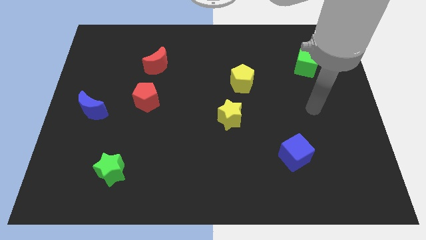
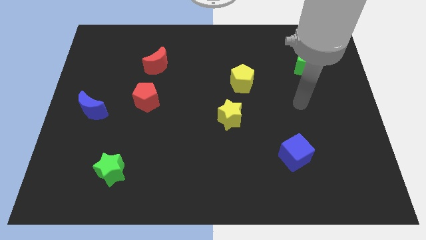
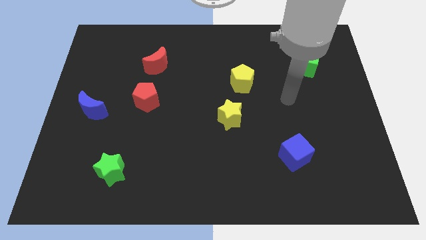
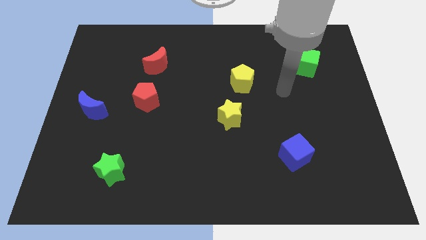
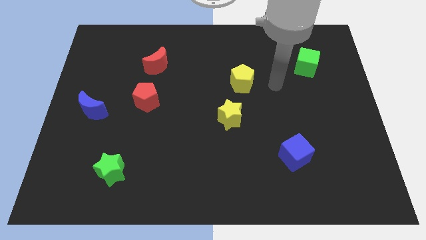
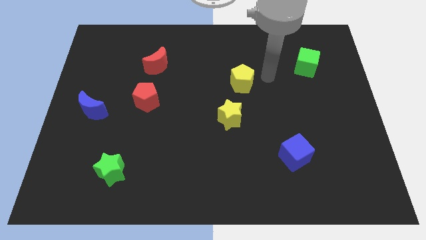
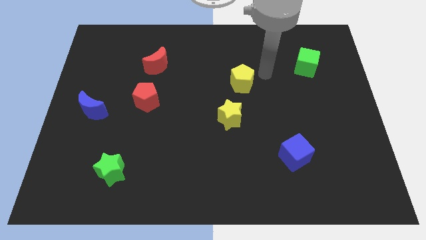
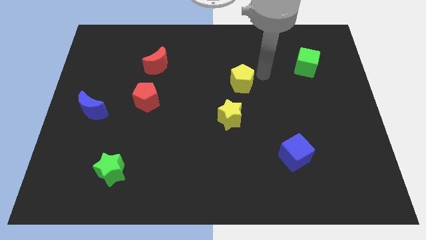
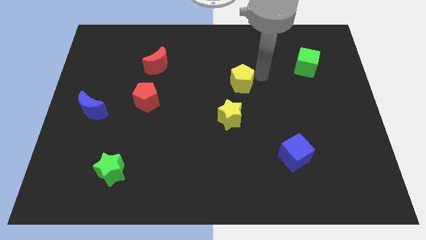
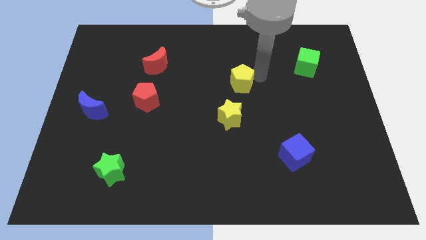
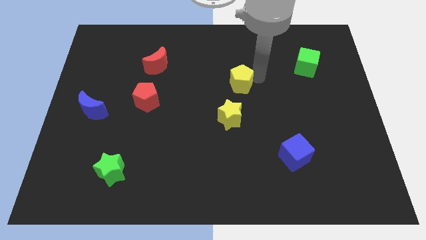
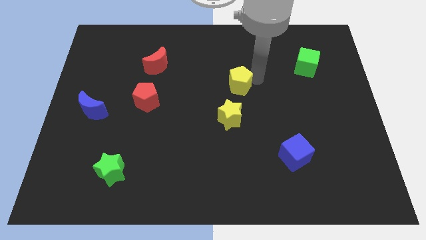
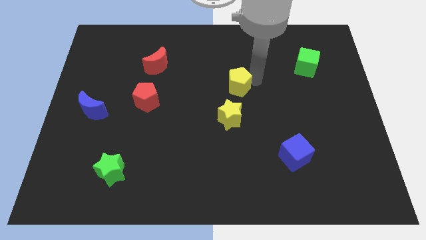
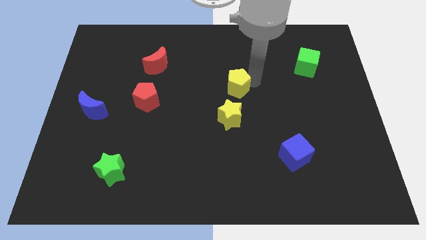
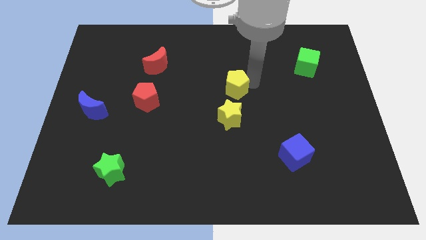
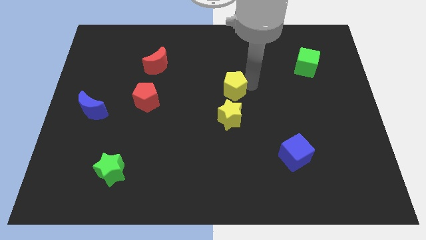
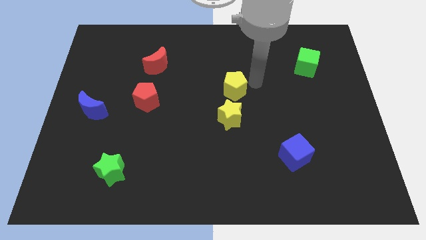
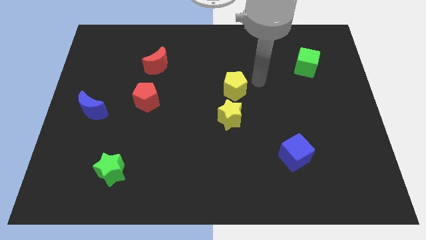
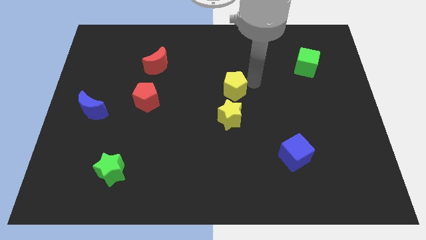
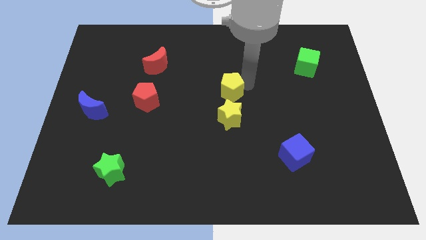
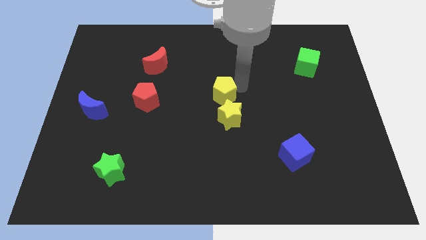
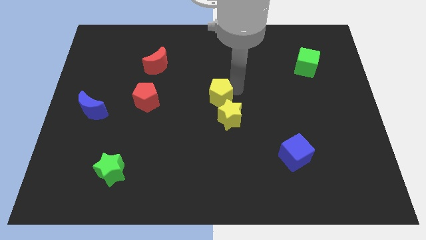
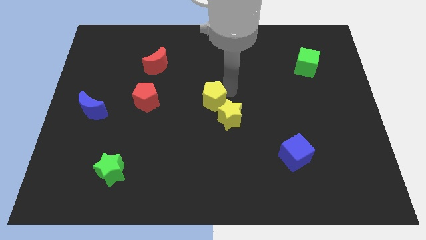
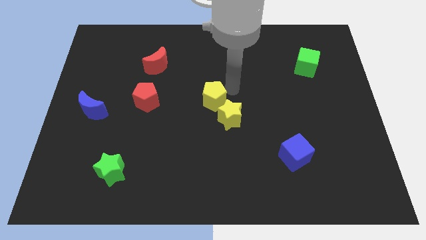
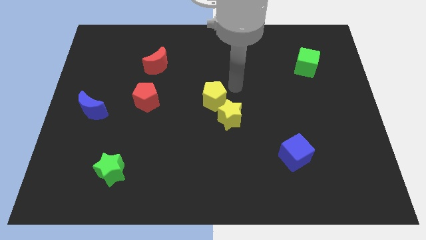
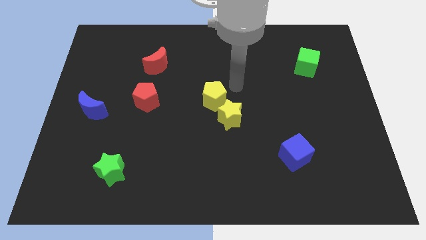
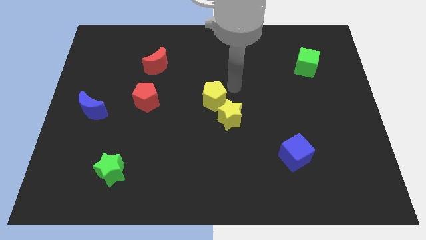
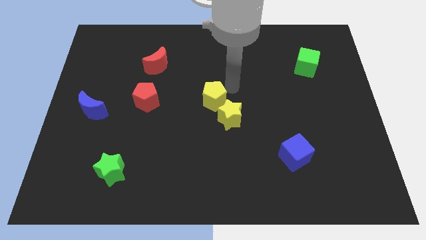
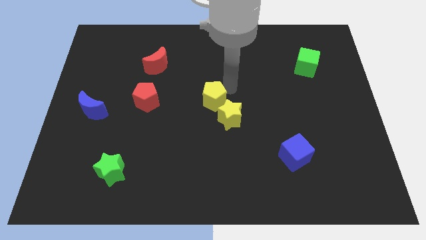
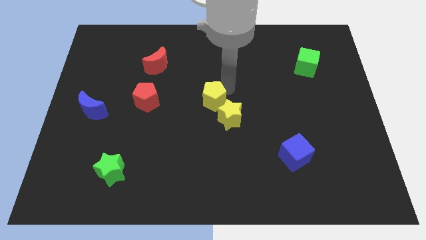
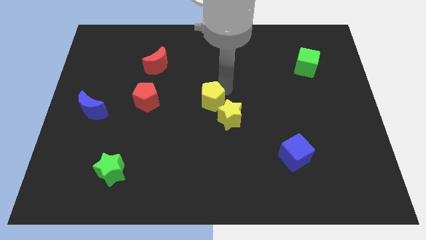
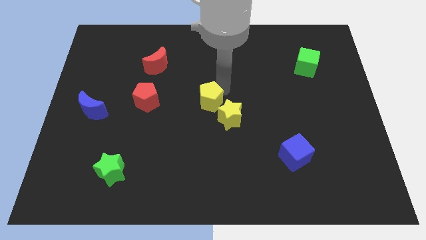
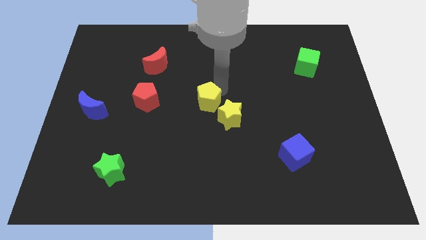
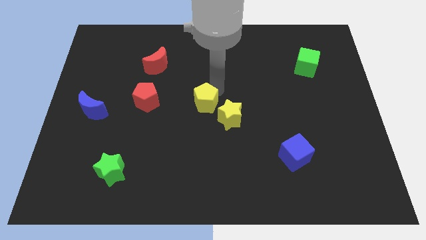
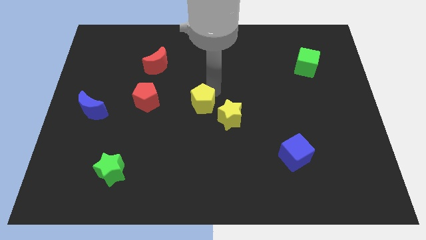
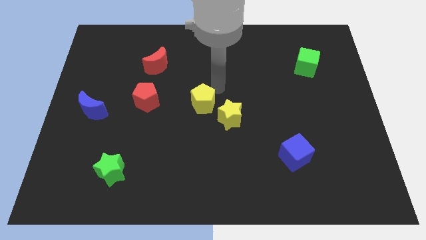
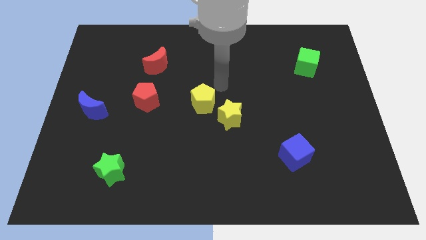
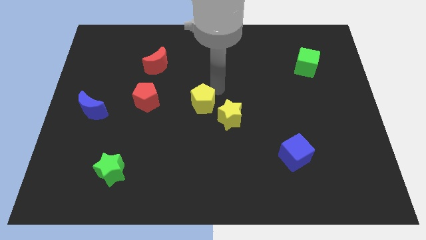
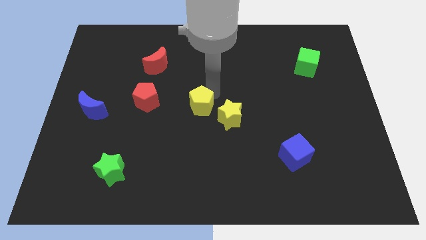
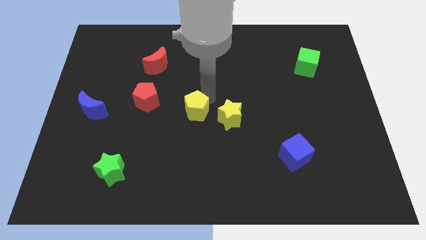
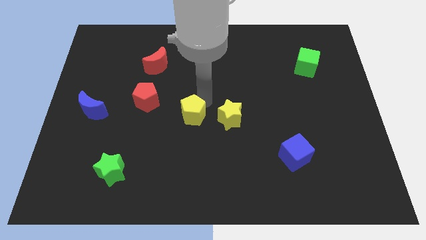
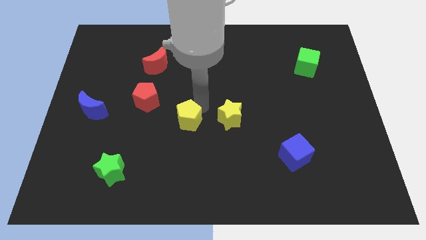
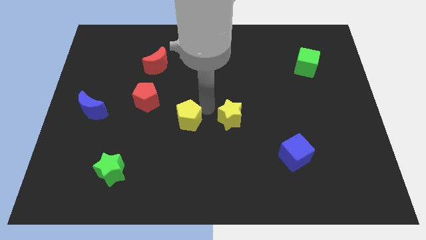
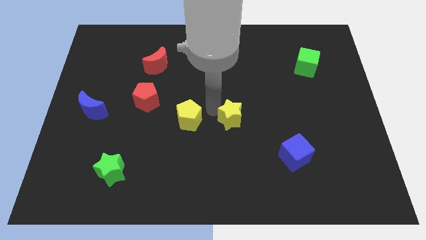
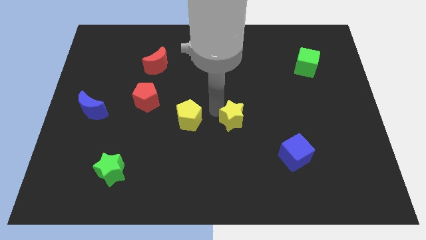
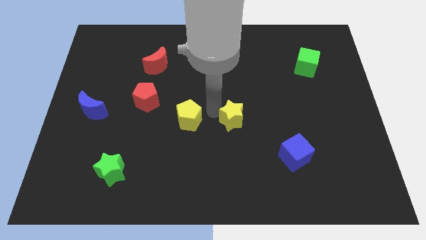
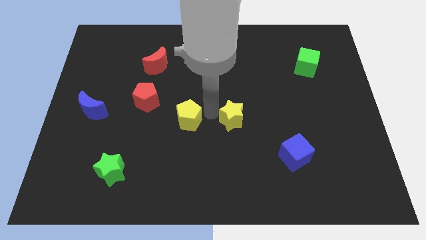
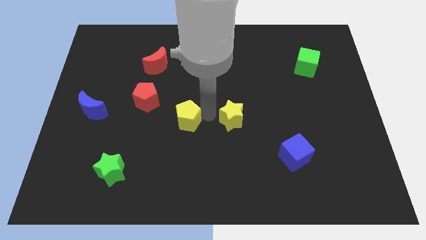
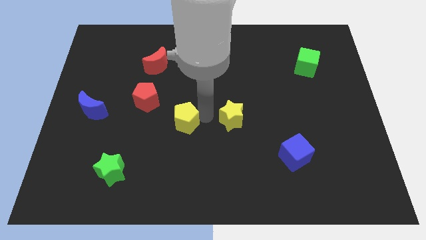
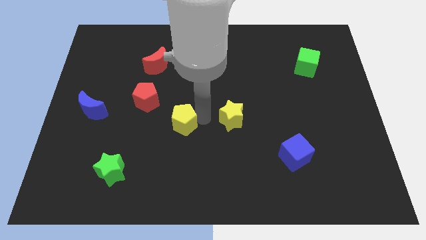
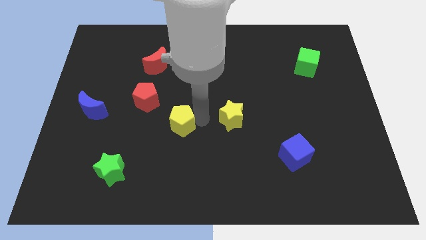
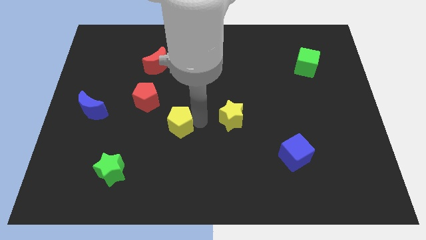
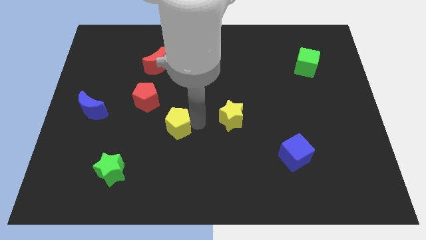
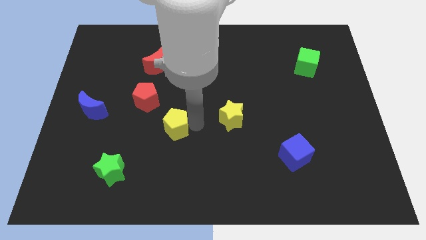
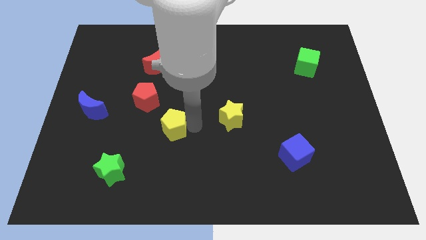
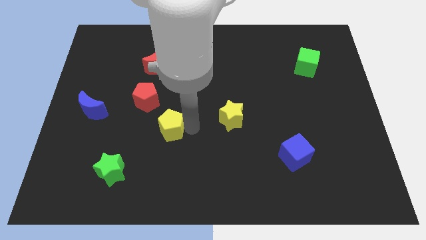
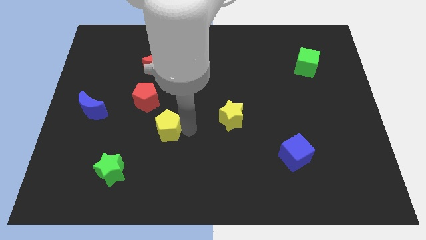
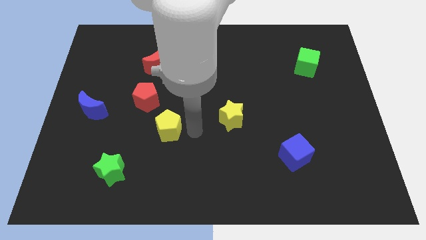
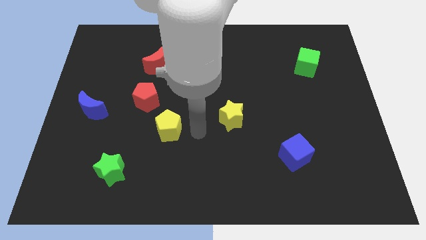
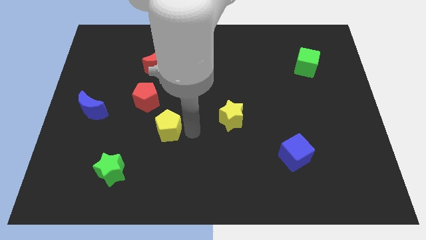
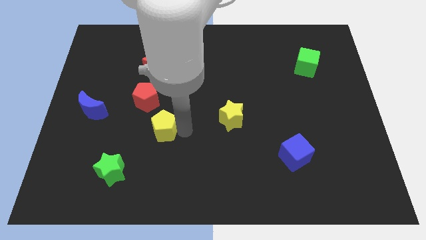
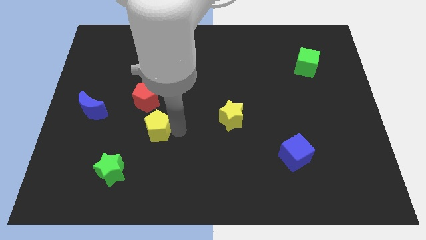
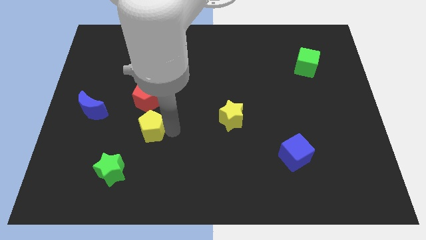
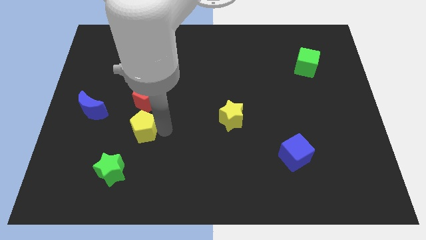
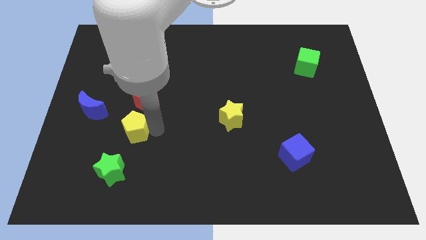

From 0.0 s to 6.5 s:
put the yellow pentagon to the top side of the green star

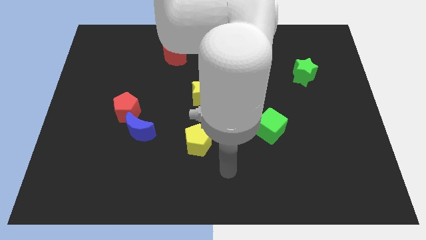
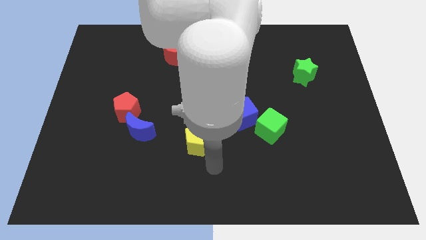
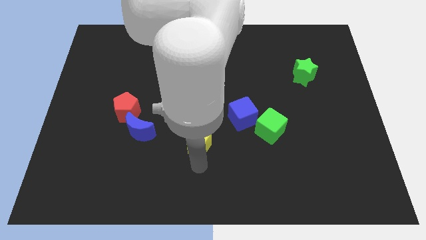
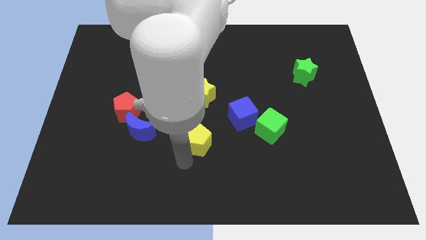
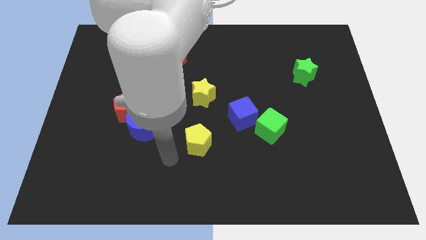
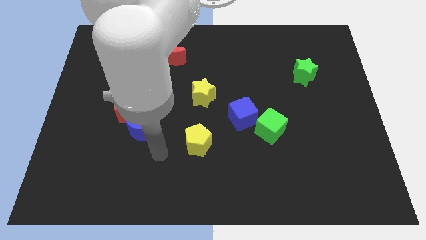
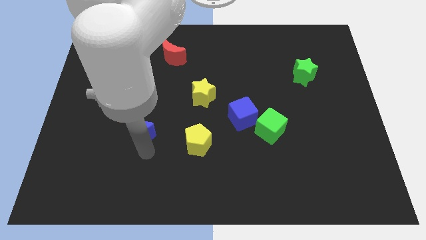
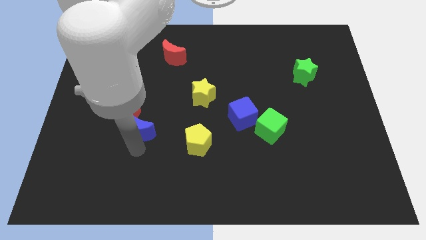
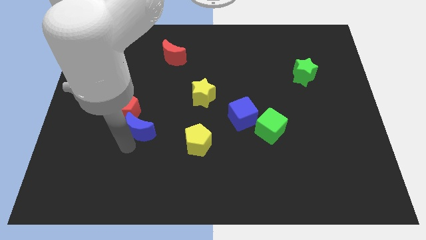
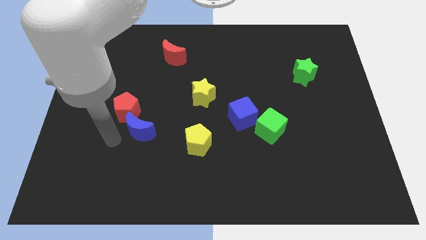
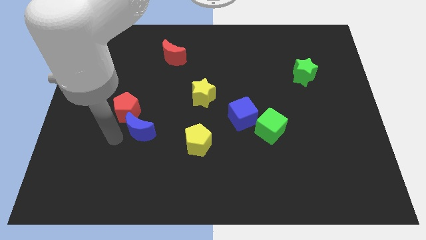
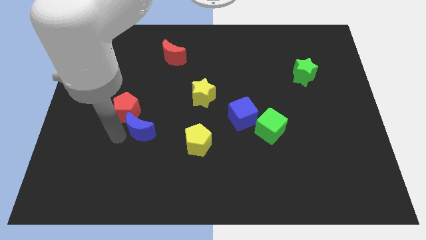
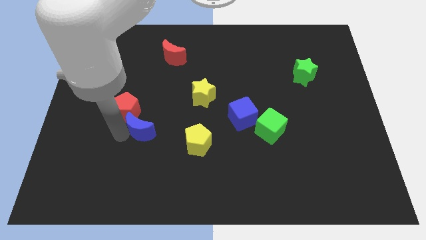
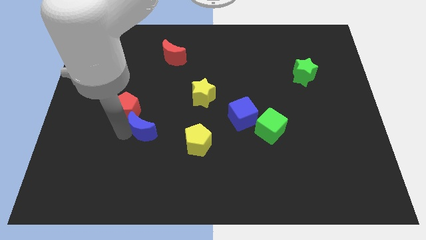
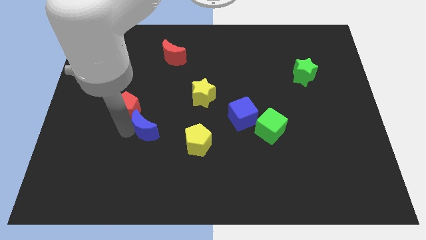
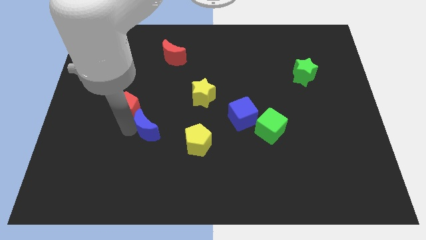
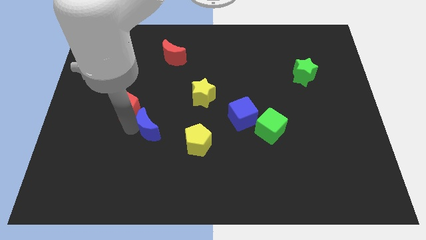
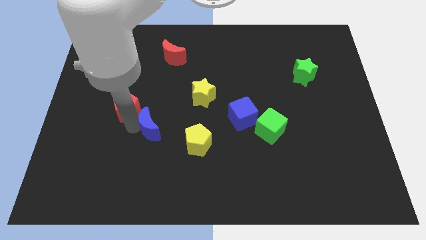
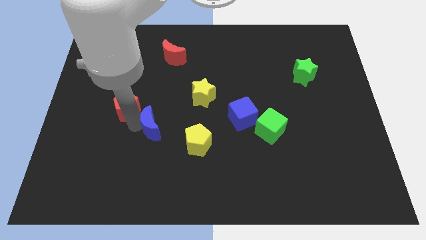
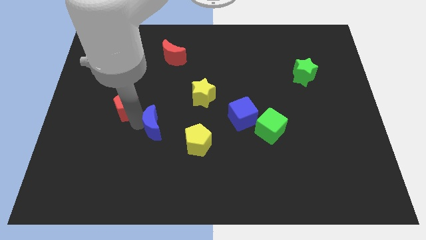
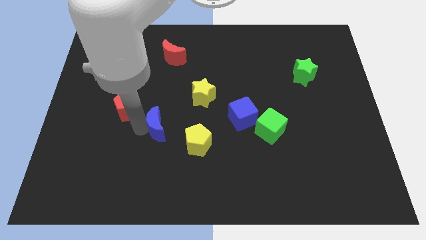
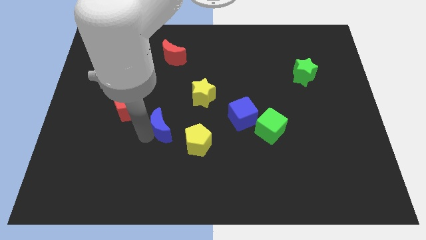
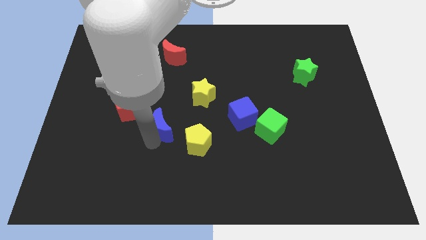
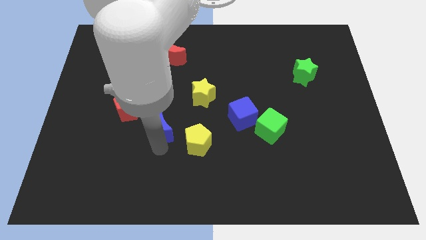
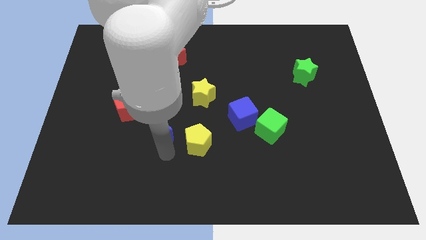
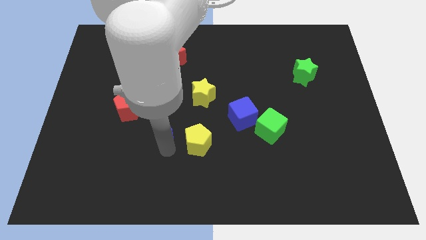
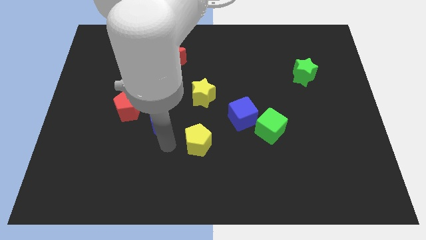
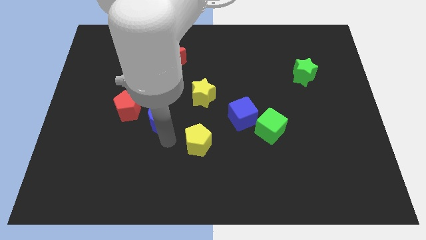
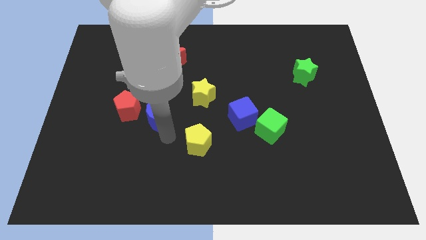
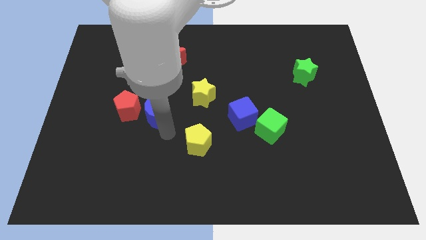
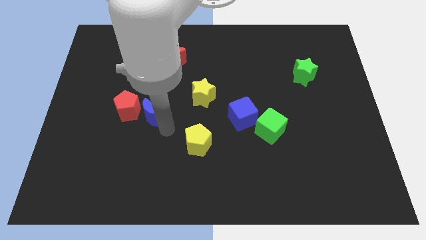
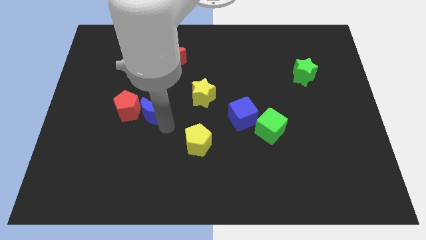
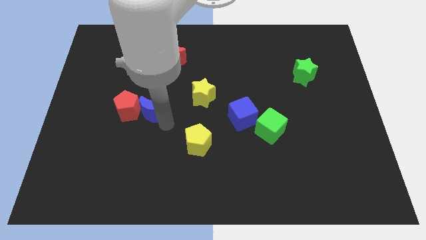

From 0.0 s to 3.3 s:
move the blue moon to the top right of the red pentagon
